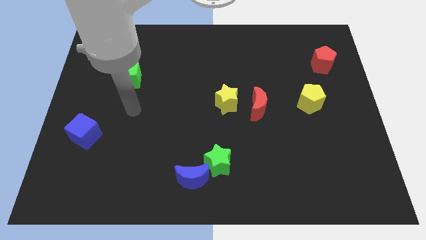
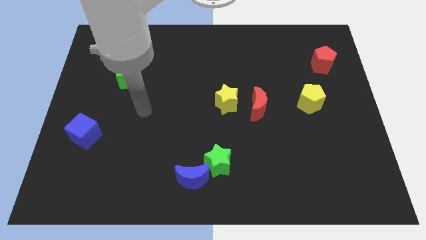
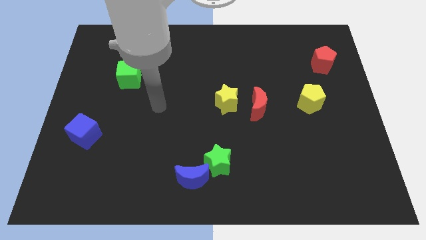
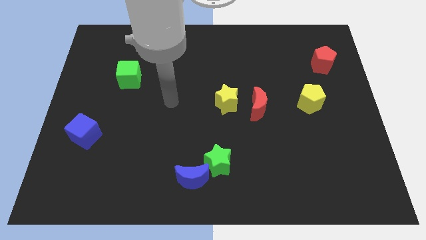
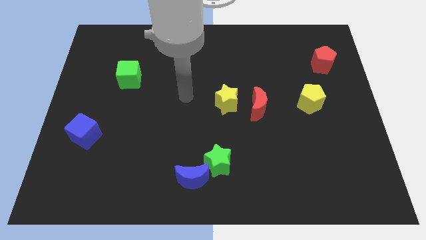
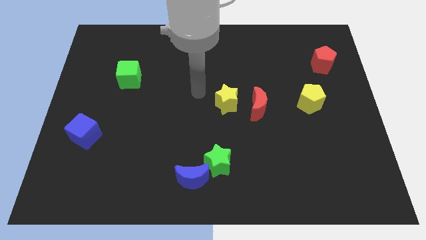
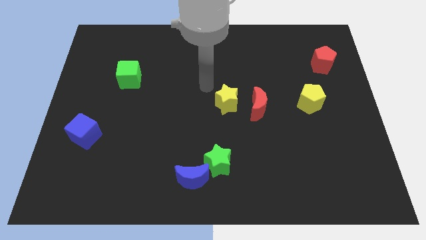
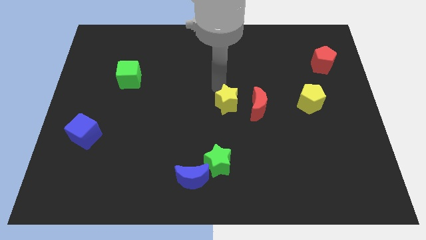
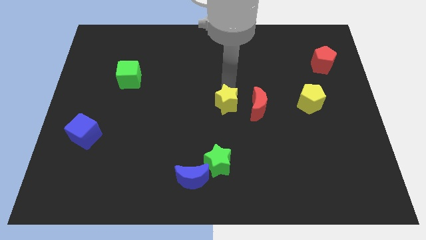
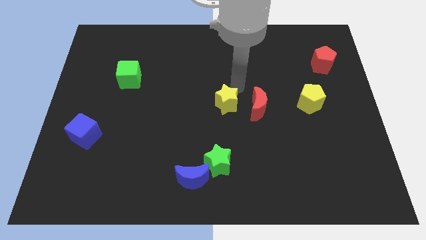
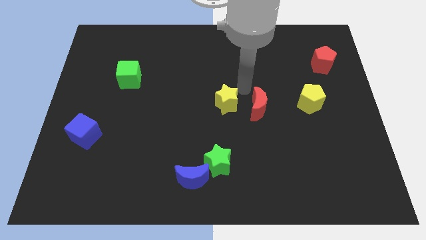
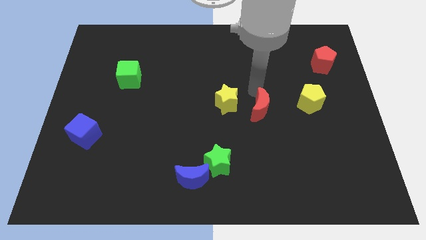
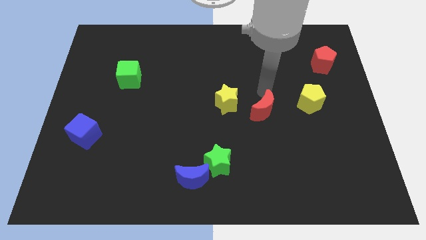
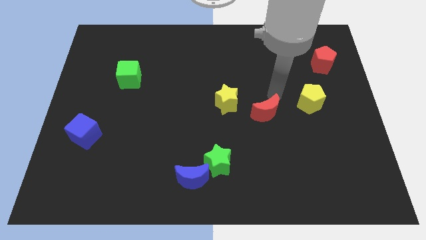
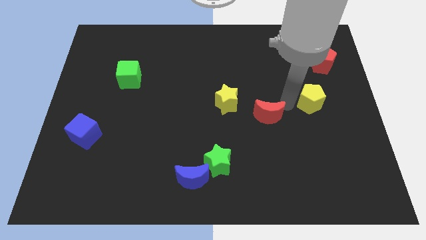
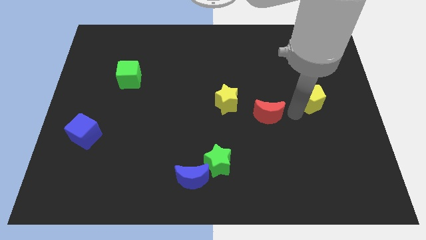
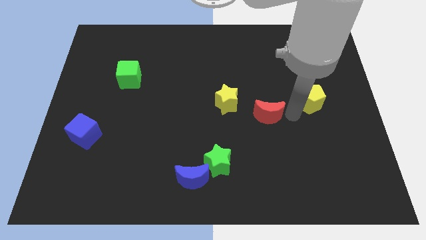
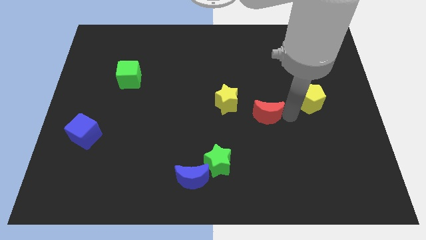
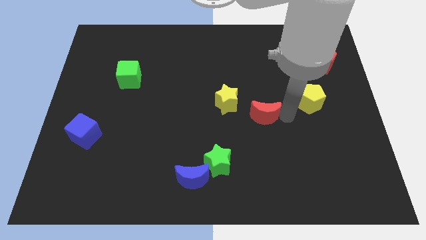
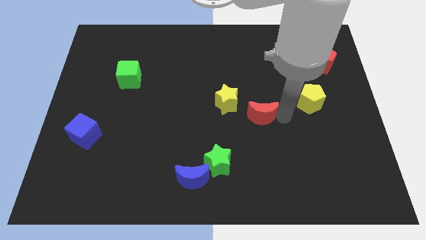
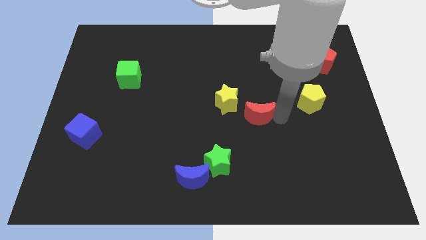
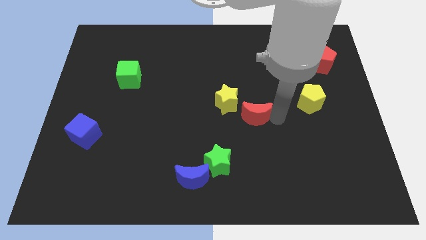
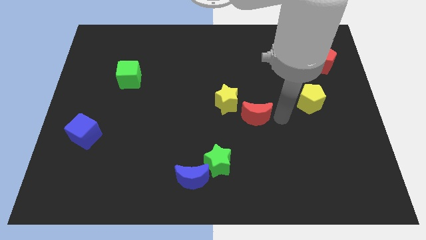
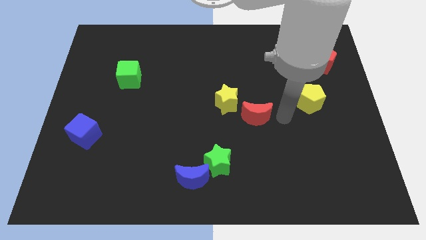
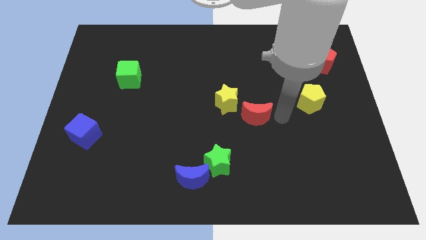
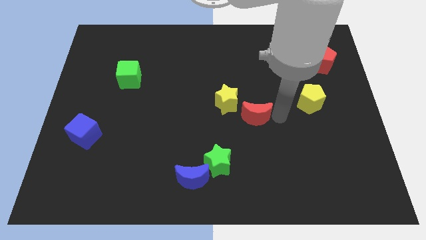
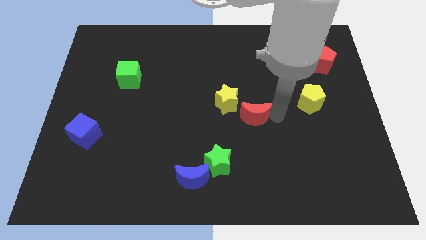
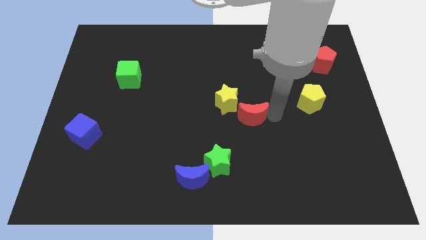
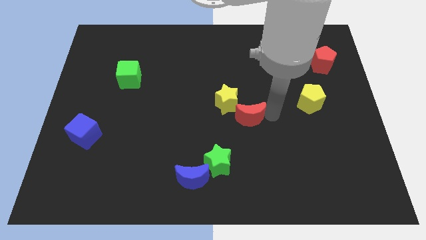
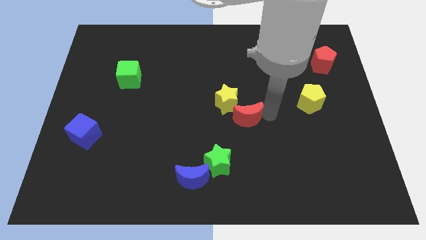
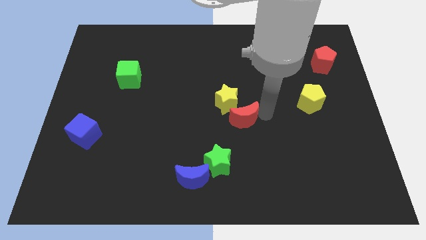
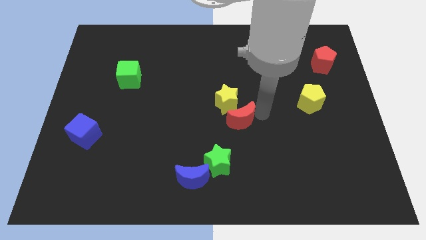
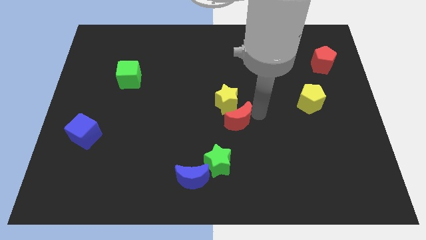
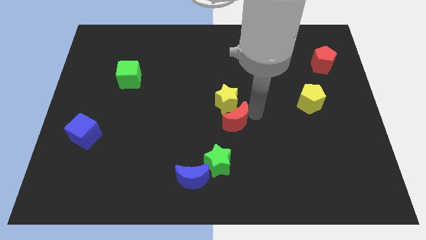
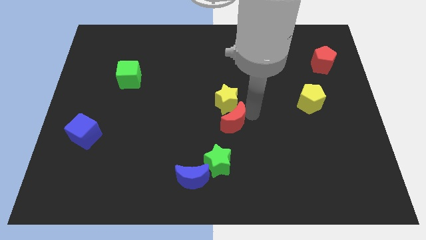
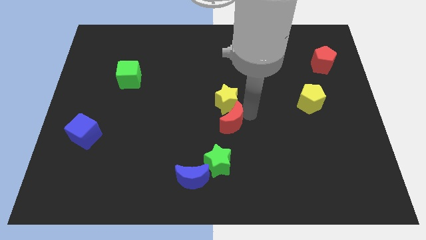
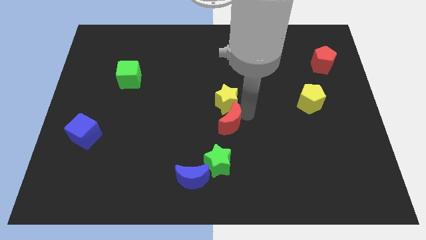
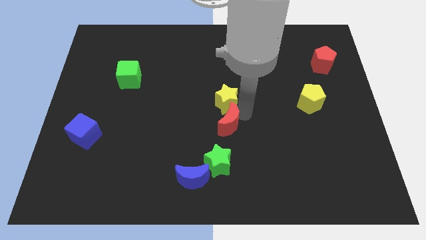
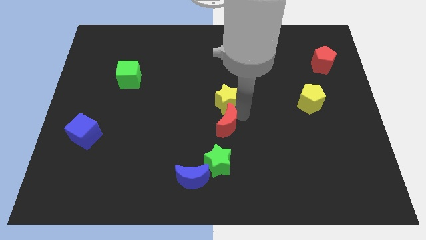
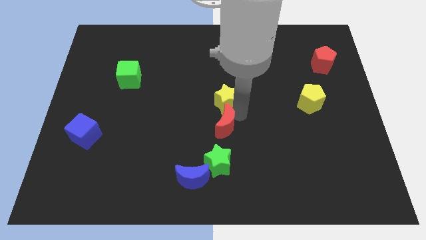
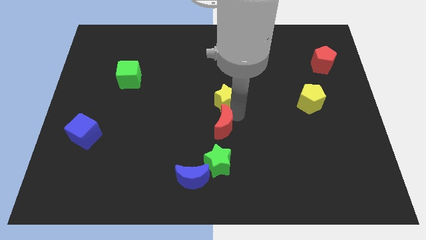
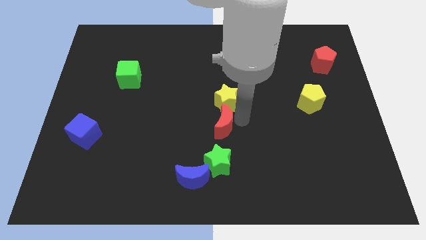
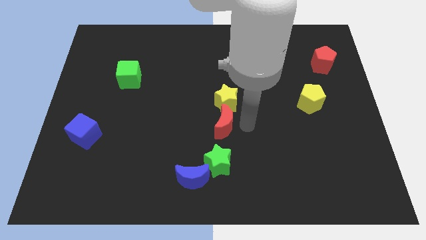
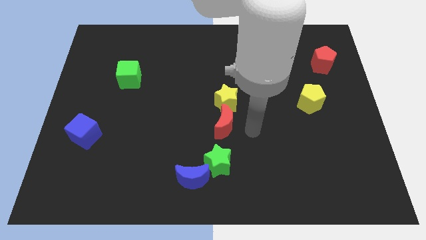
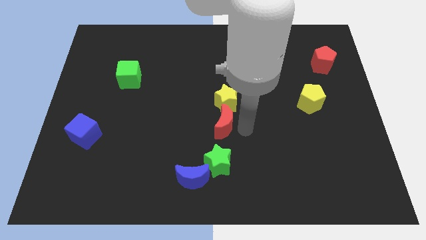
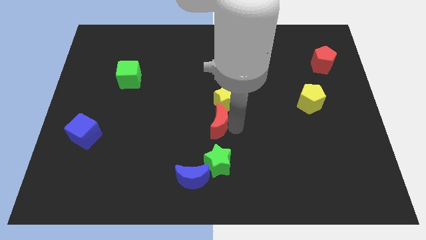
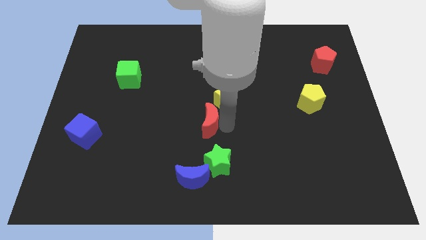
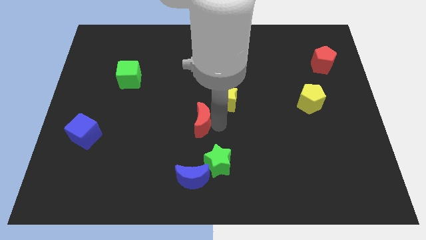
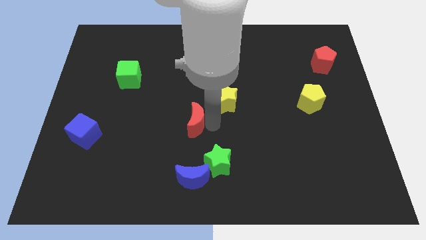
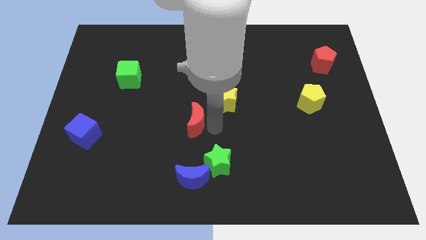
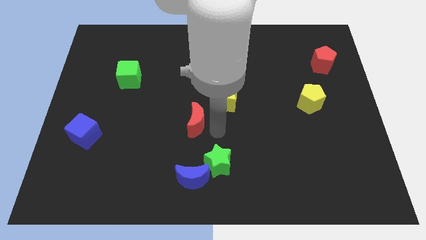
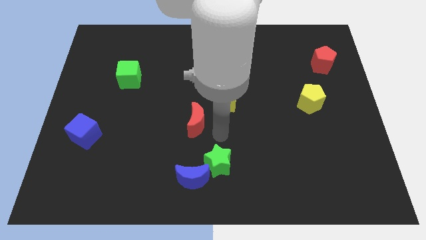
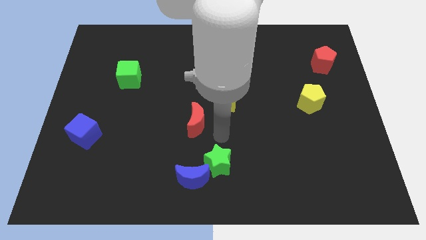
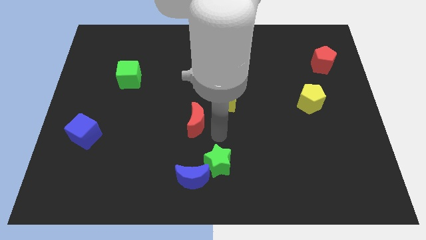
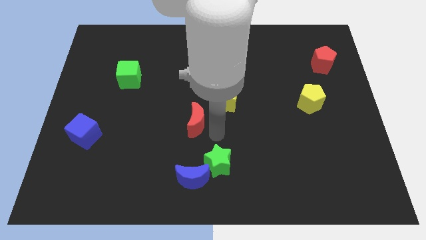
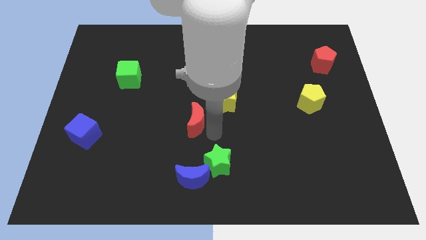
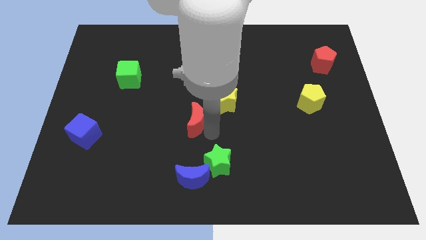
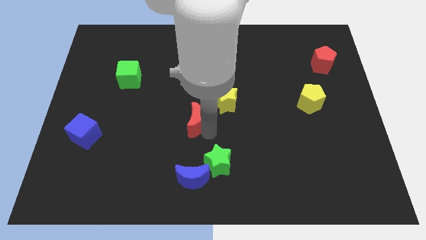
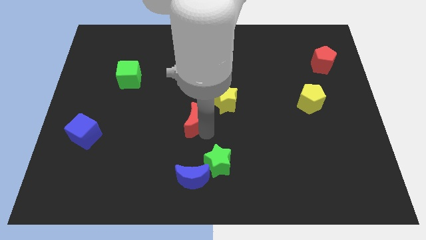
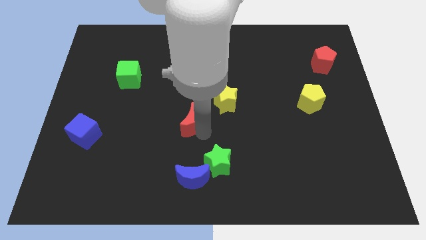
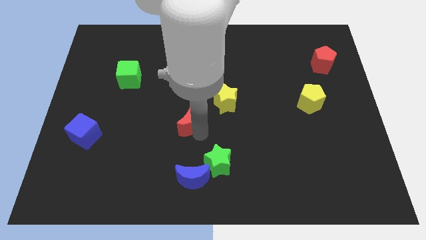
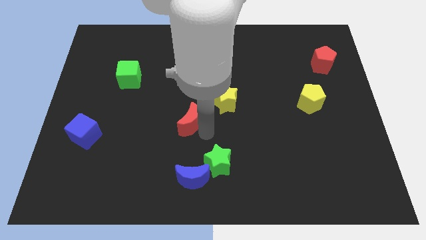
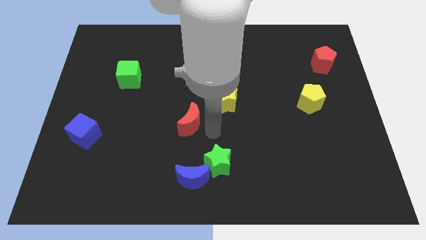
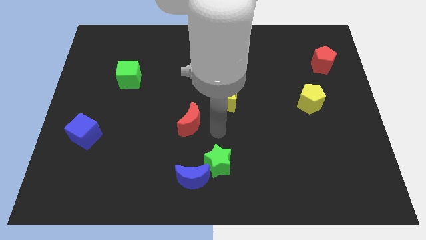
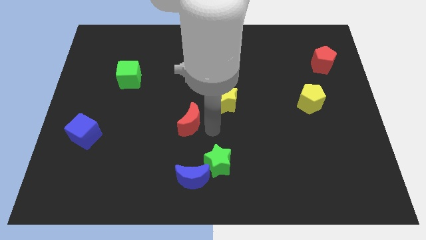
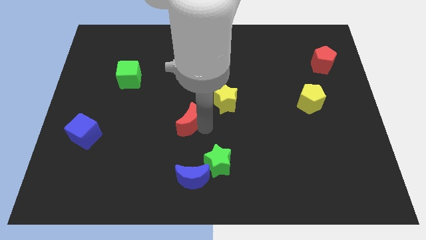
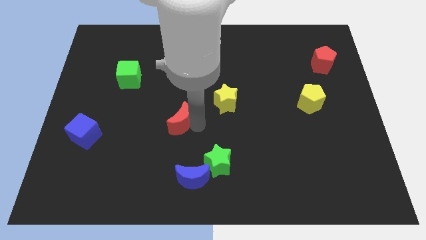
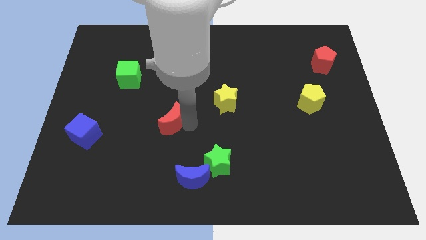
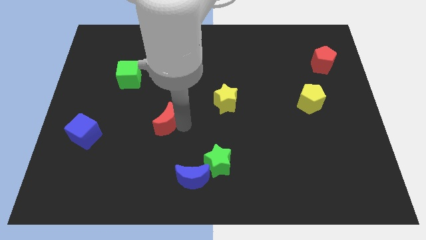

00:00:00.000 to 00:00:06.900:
slide the red moon left

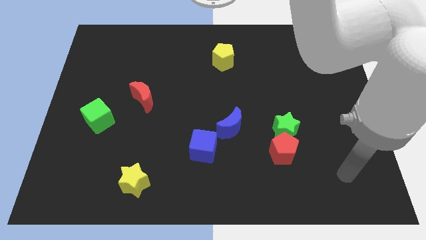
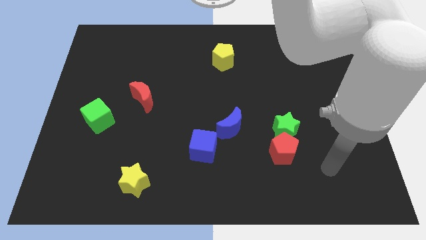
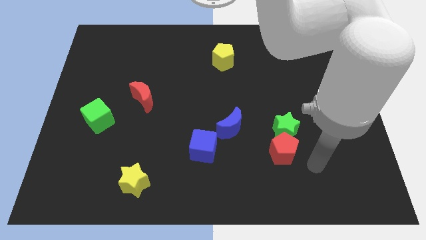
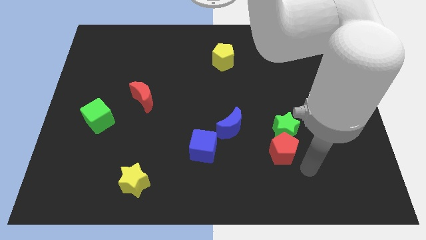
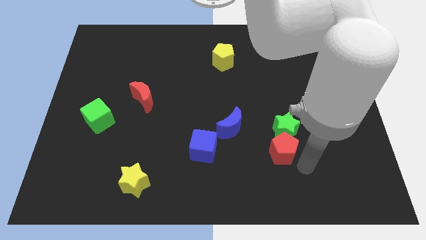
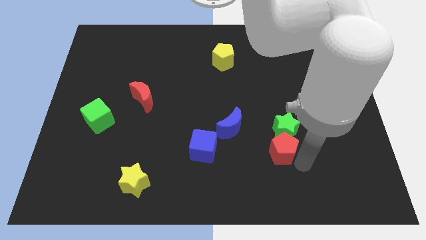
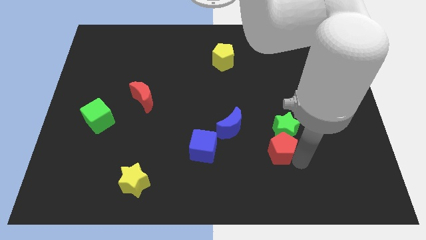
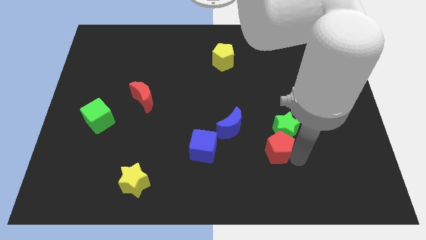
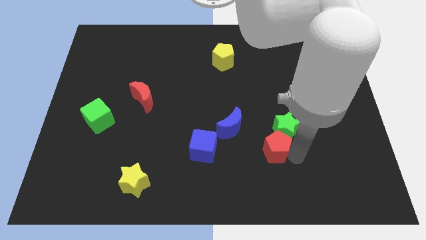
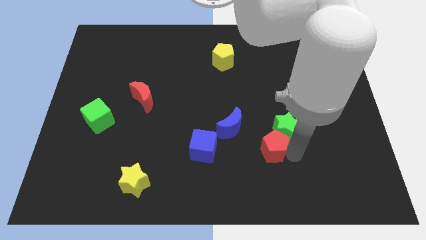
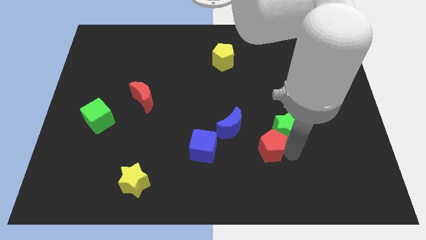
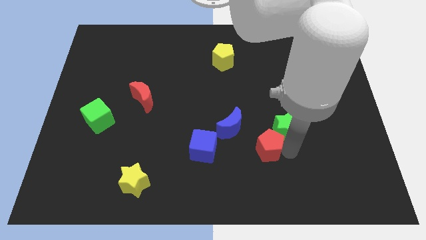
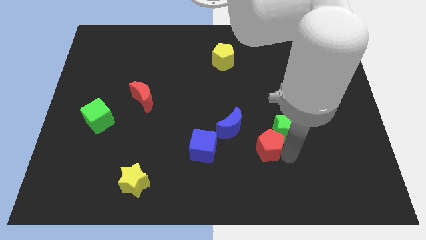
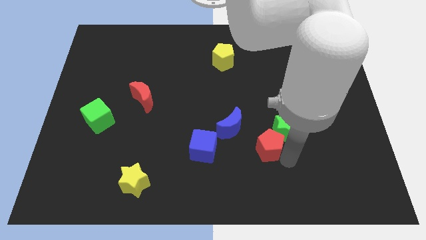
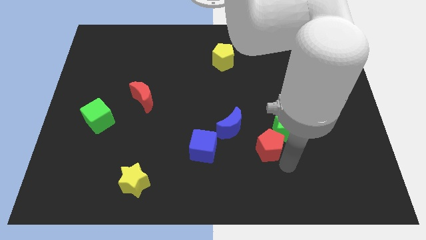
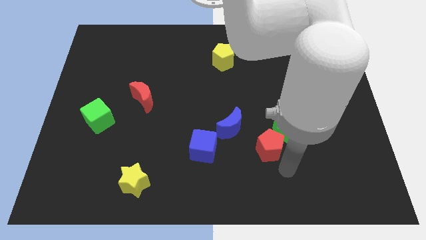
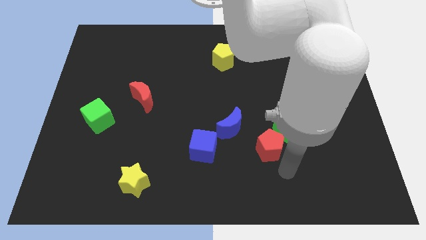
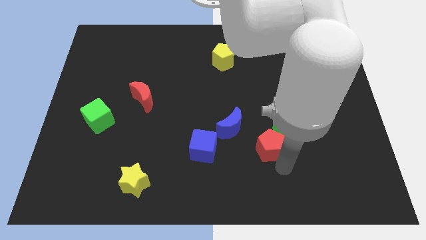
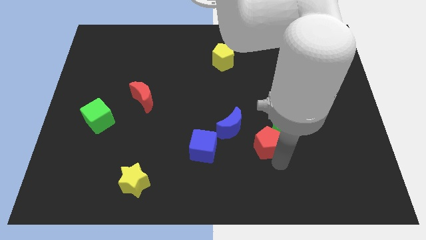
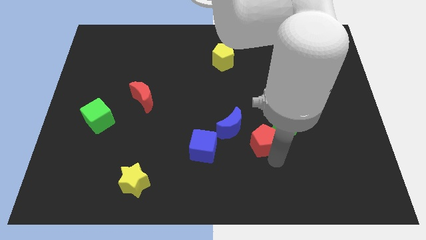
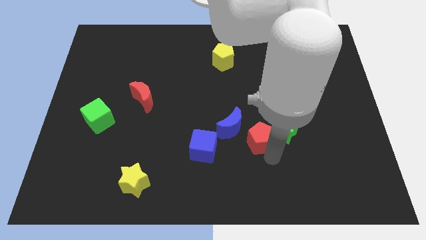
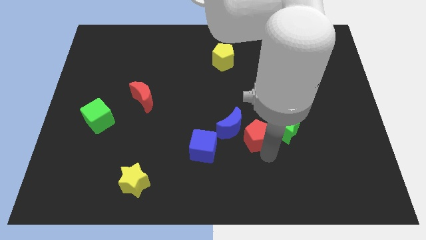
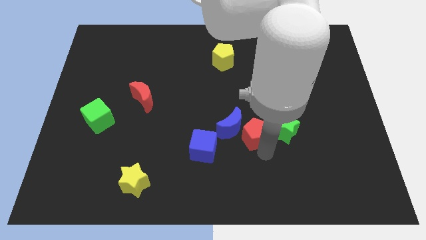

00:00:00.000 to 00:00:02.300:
push the red pentagon somewhat diagonally up and left
